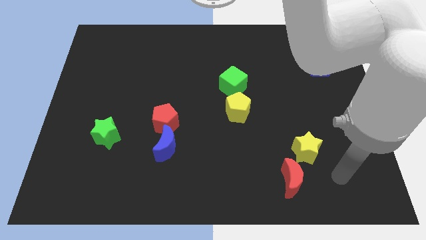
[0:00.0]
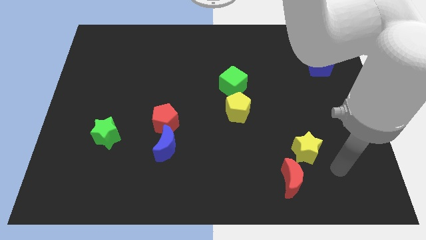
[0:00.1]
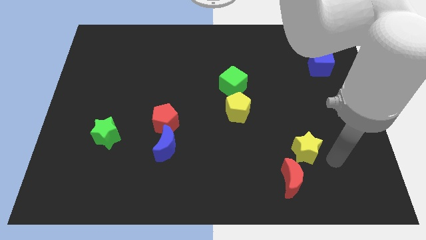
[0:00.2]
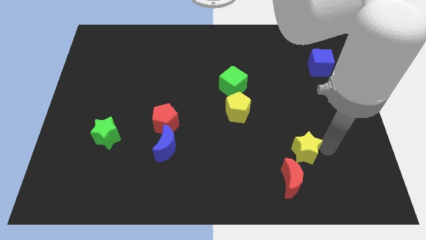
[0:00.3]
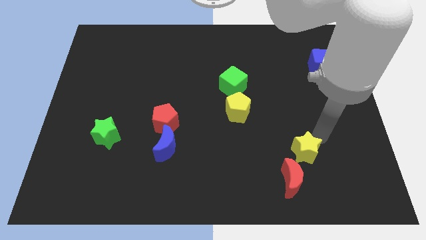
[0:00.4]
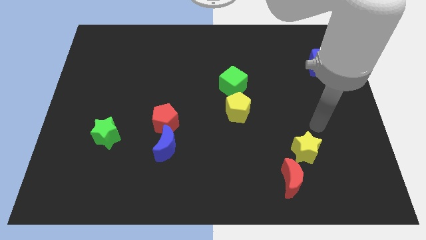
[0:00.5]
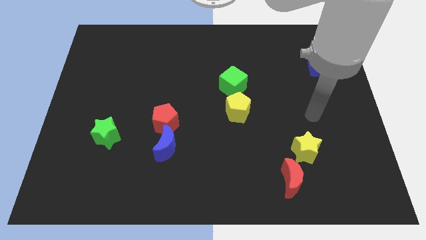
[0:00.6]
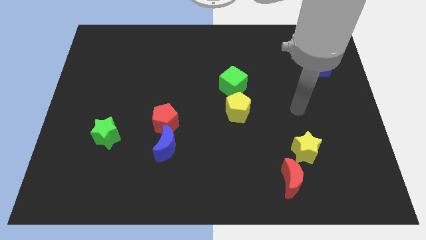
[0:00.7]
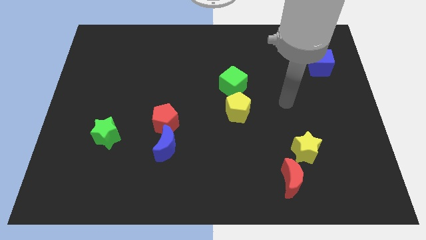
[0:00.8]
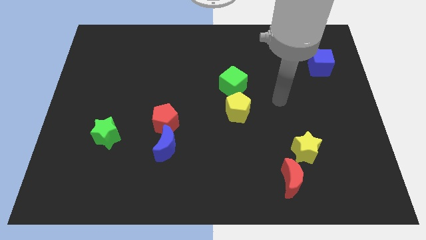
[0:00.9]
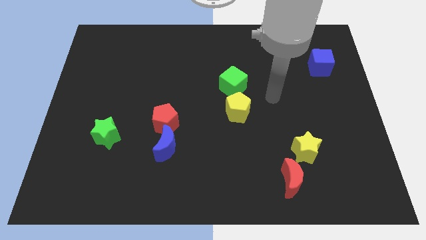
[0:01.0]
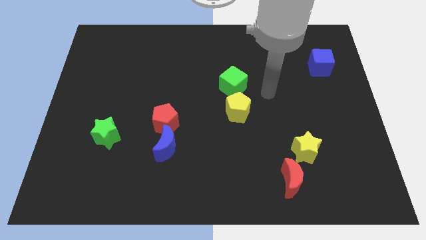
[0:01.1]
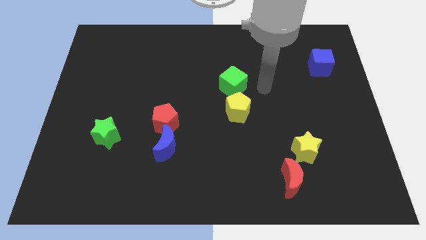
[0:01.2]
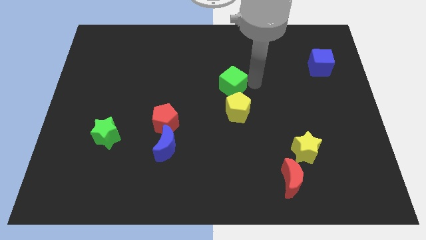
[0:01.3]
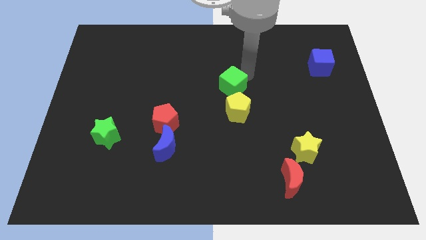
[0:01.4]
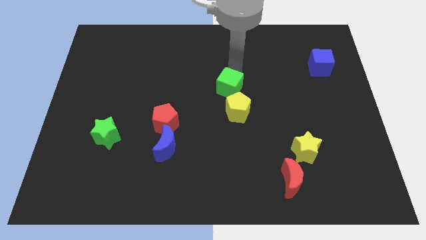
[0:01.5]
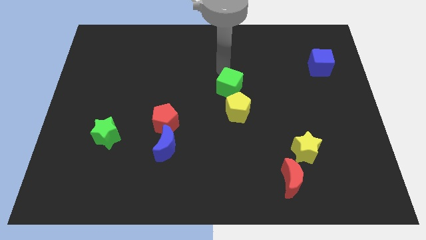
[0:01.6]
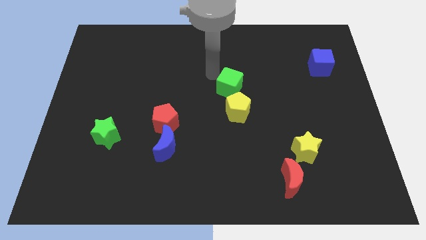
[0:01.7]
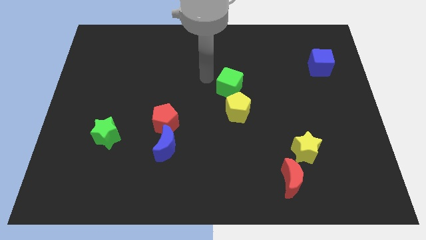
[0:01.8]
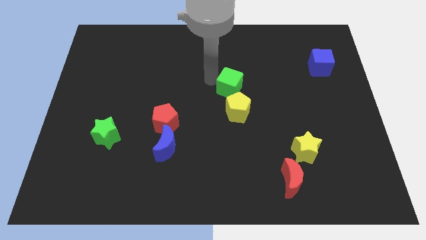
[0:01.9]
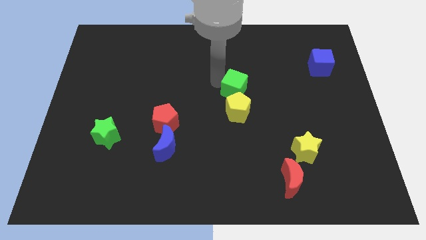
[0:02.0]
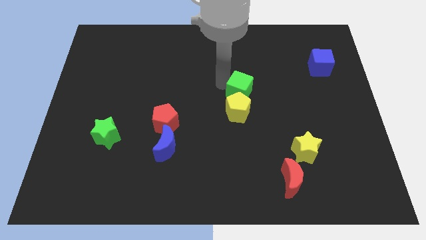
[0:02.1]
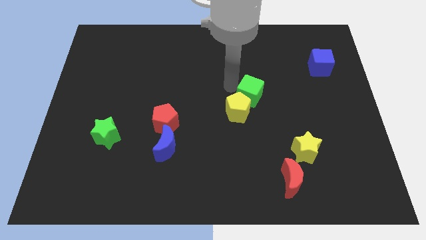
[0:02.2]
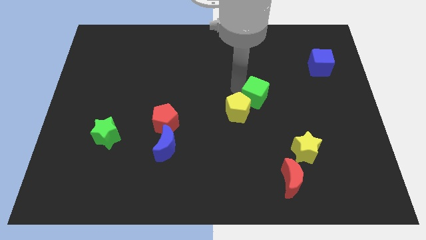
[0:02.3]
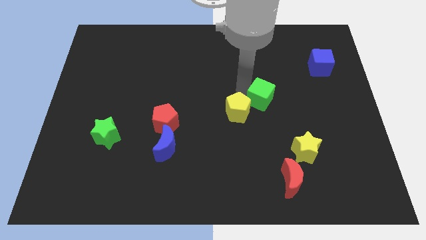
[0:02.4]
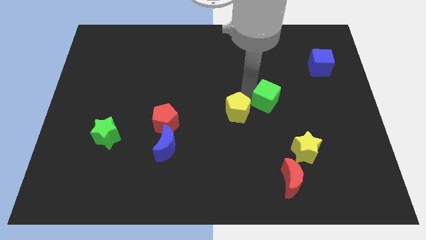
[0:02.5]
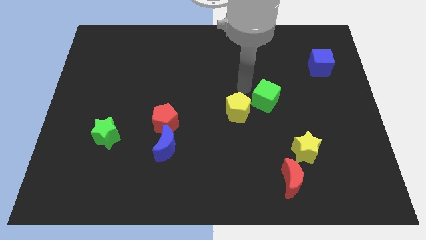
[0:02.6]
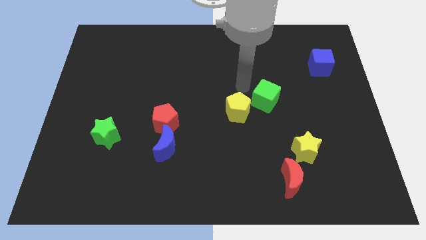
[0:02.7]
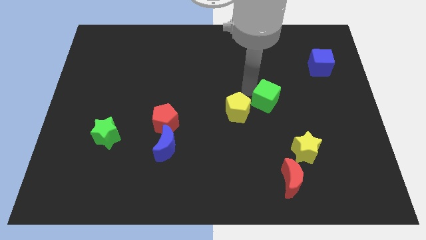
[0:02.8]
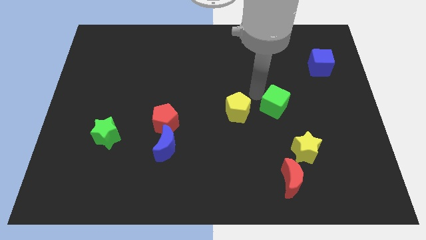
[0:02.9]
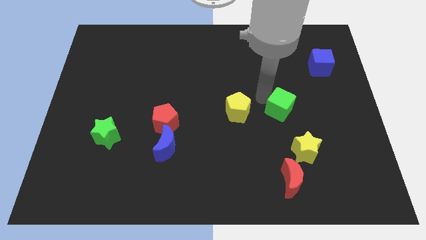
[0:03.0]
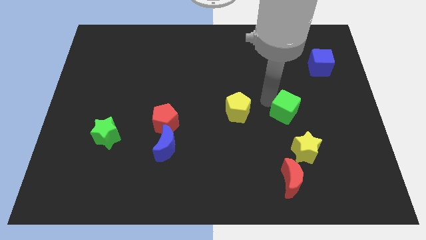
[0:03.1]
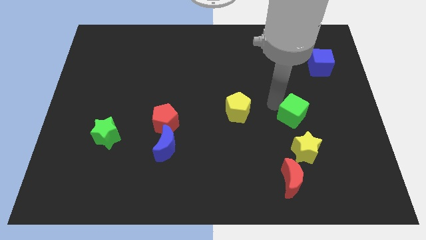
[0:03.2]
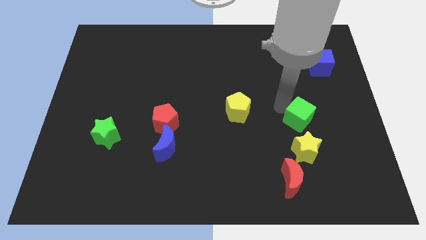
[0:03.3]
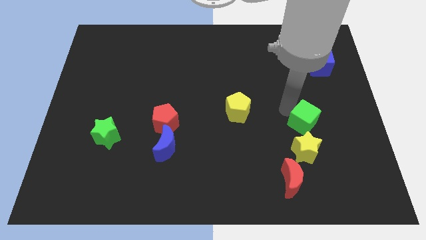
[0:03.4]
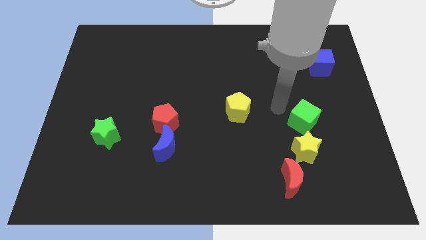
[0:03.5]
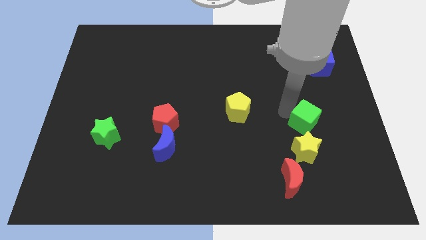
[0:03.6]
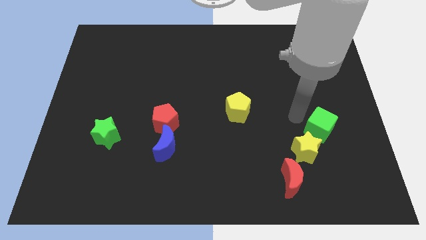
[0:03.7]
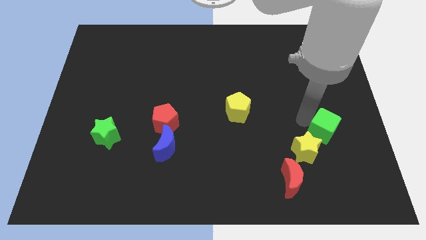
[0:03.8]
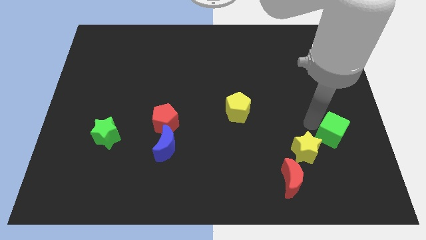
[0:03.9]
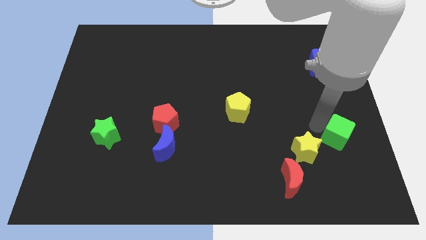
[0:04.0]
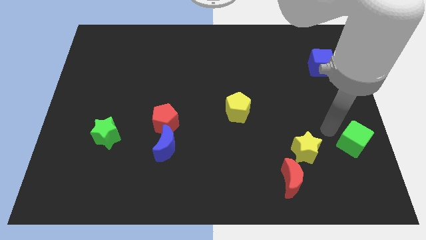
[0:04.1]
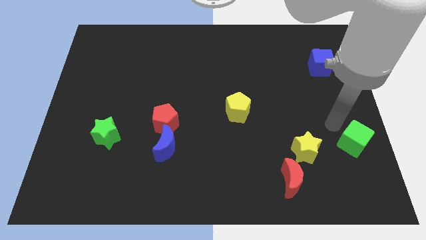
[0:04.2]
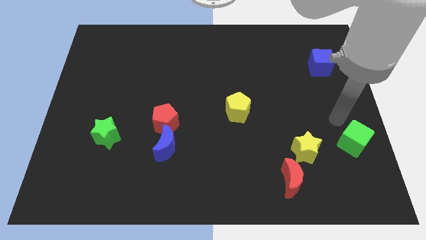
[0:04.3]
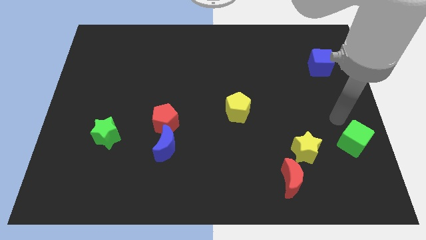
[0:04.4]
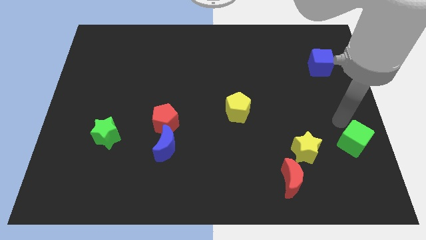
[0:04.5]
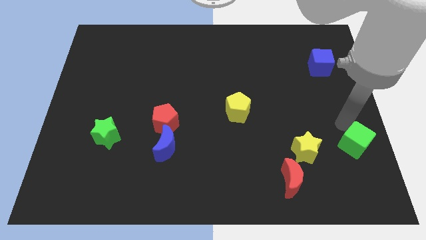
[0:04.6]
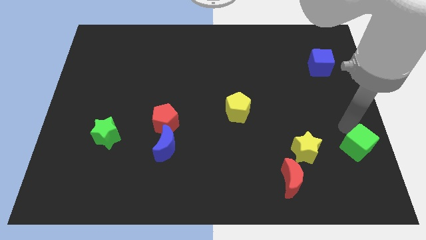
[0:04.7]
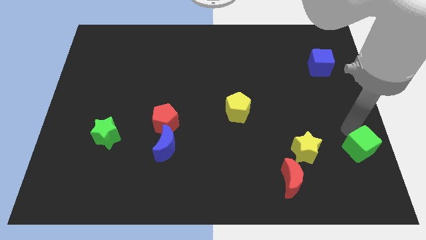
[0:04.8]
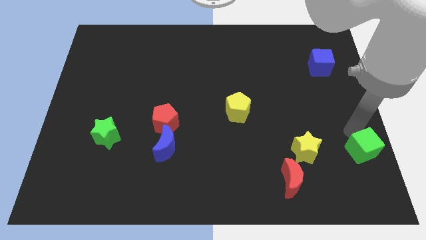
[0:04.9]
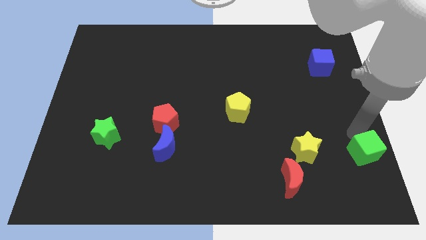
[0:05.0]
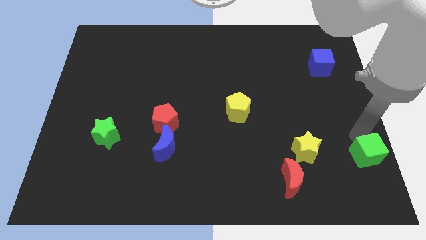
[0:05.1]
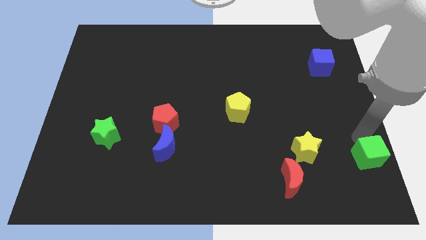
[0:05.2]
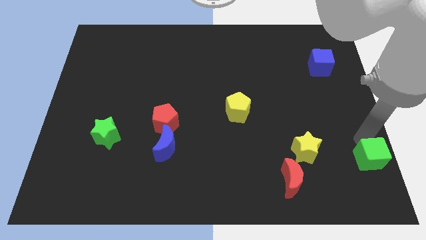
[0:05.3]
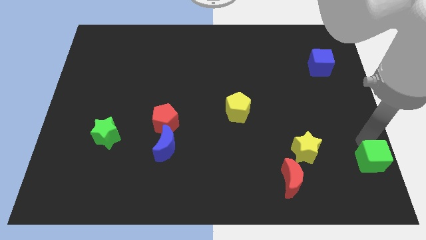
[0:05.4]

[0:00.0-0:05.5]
slide the green cube to the bottom right

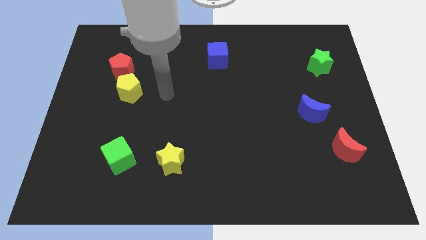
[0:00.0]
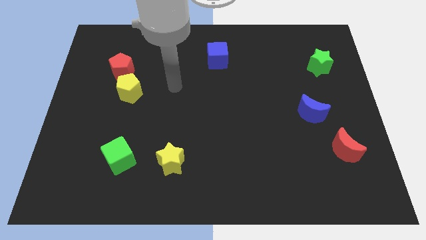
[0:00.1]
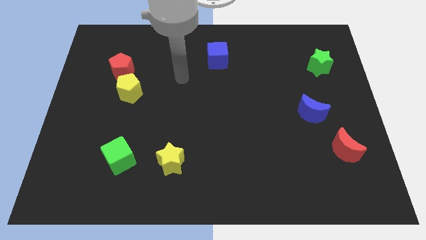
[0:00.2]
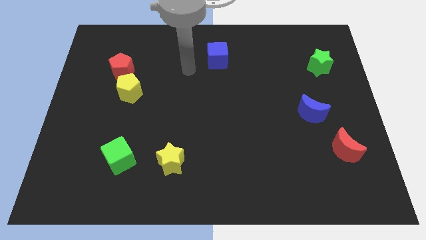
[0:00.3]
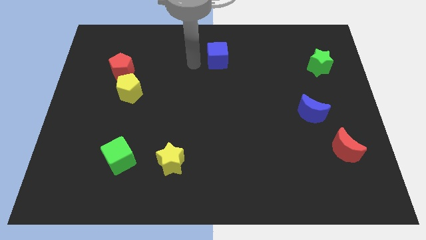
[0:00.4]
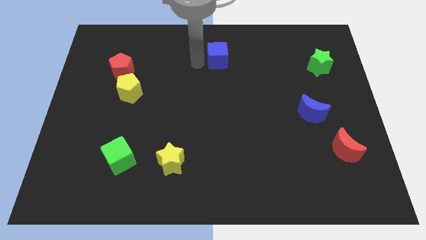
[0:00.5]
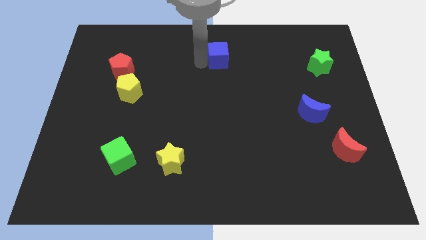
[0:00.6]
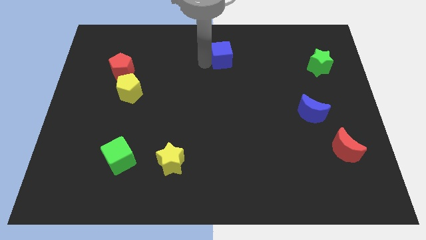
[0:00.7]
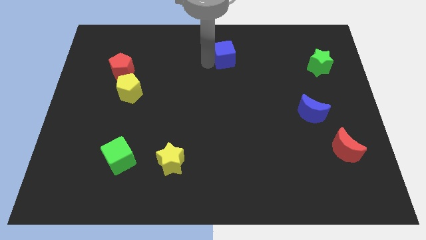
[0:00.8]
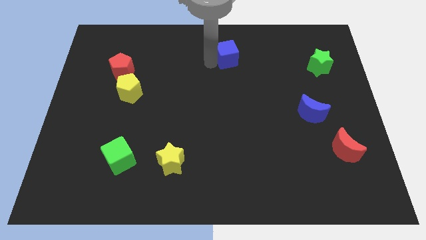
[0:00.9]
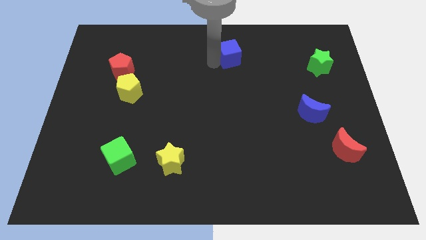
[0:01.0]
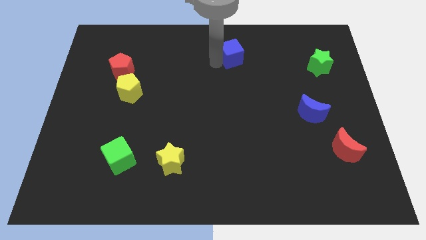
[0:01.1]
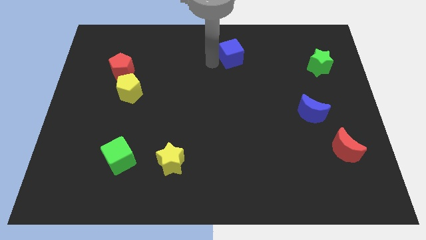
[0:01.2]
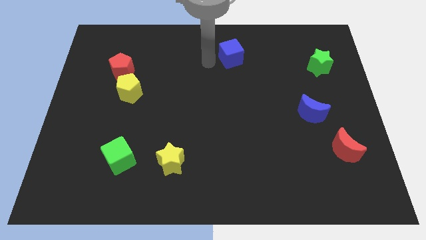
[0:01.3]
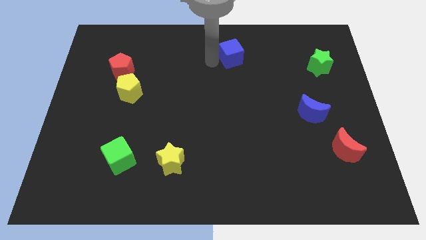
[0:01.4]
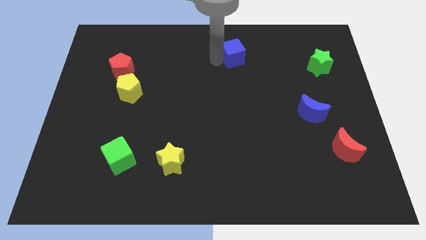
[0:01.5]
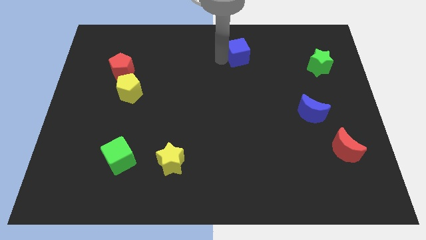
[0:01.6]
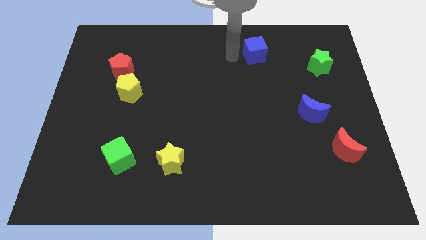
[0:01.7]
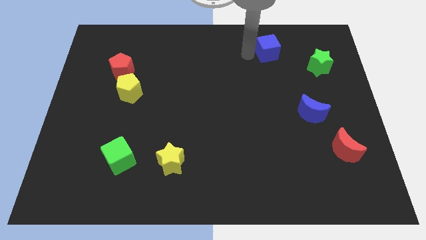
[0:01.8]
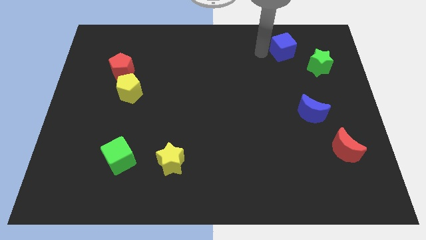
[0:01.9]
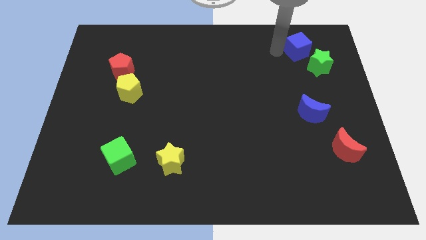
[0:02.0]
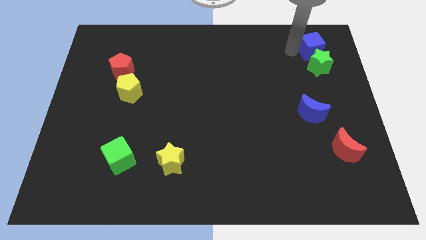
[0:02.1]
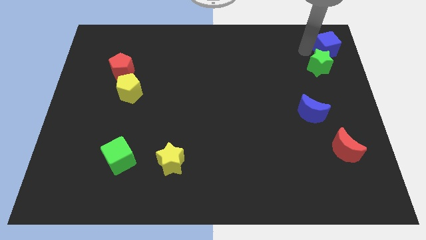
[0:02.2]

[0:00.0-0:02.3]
slide the blue cube to the upper right corner
